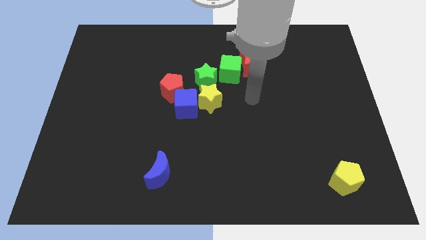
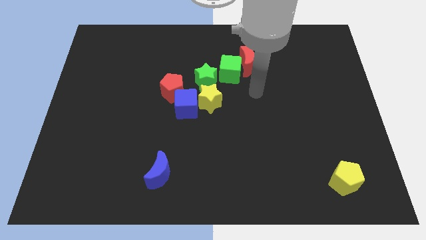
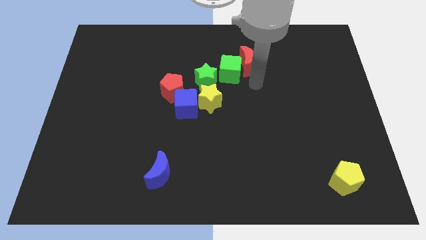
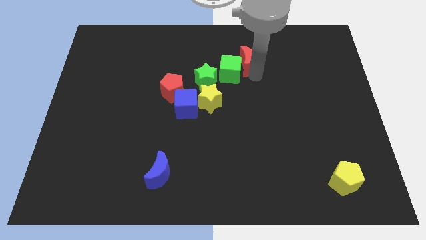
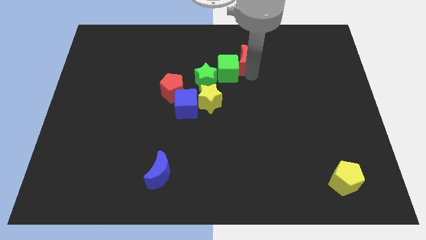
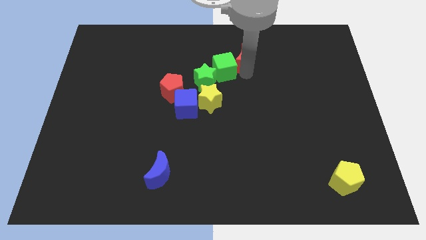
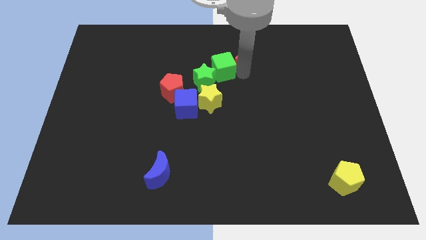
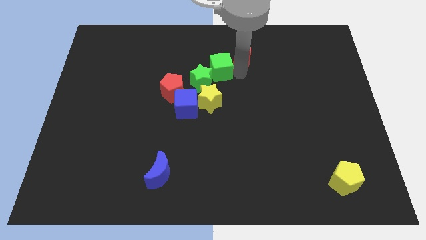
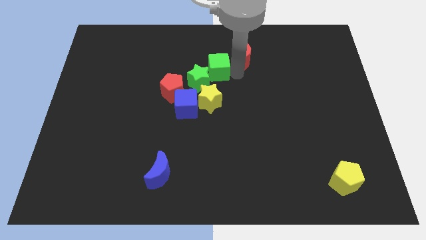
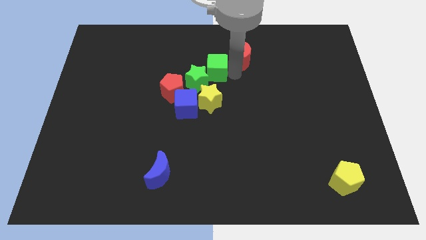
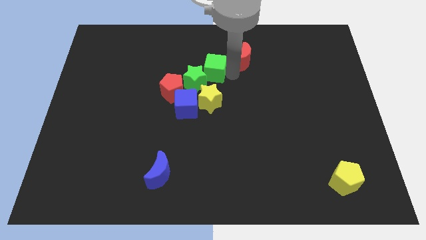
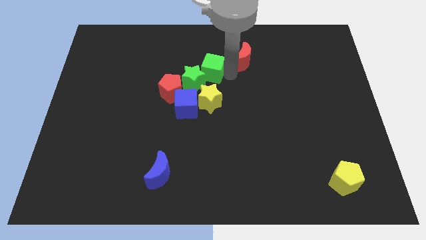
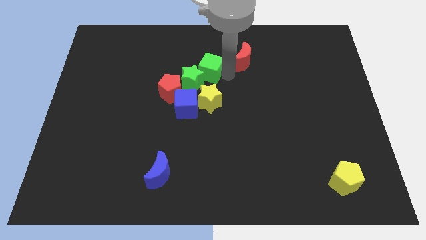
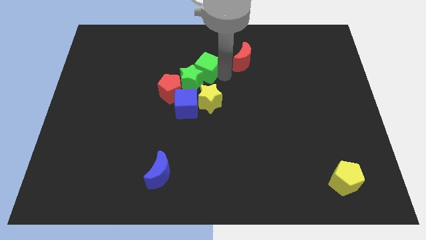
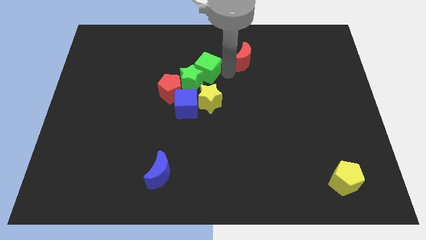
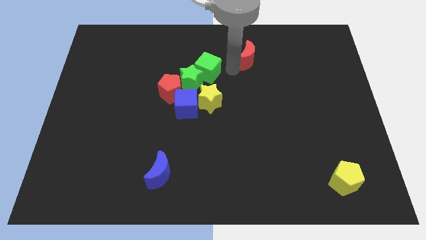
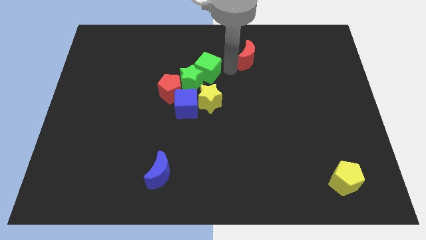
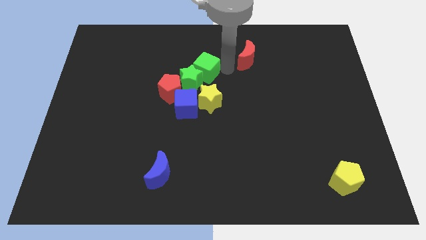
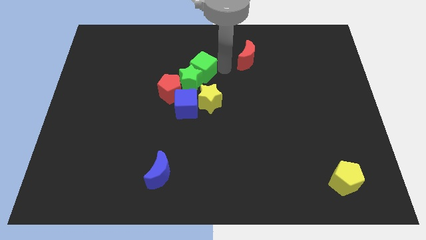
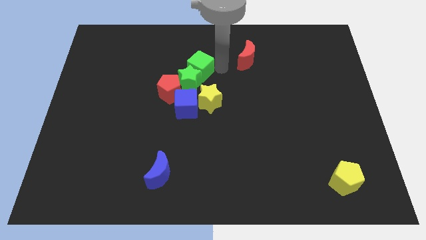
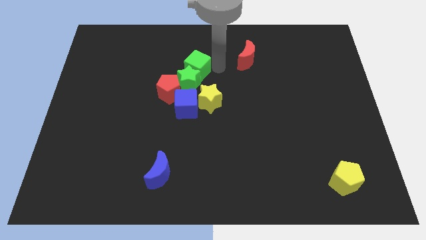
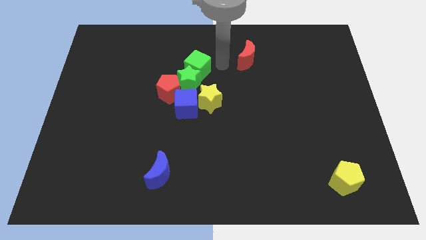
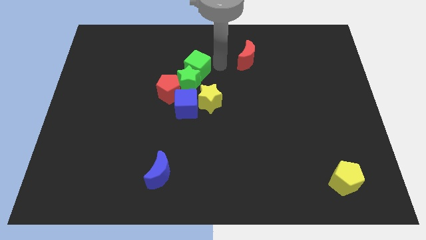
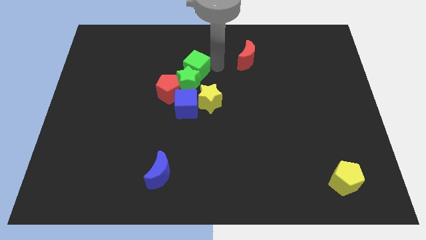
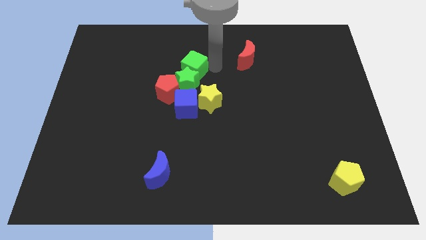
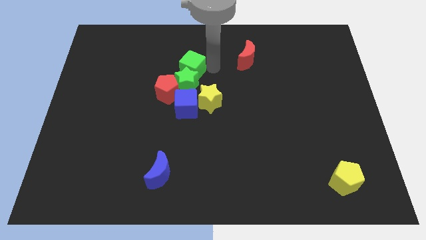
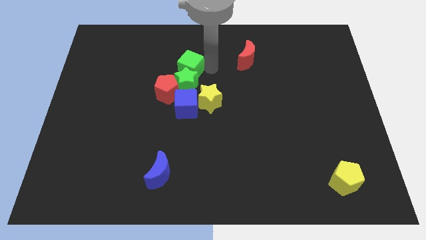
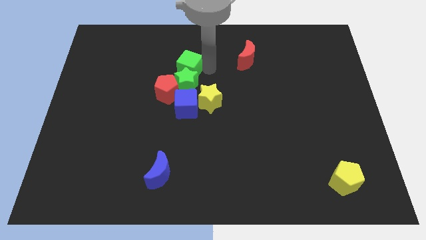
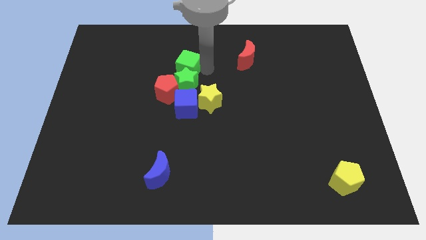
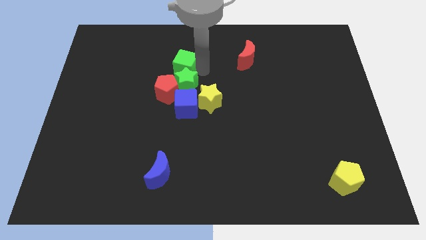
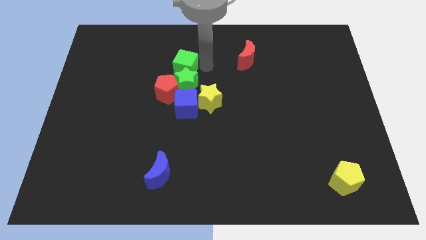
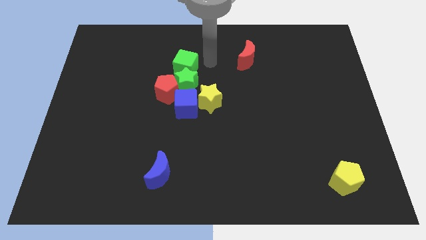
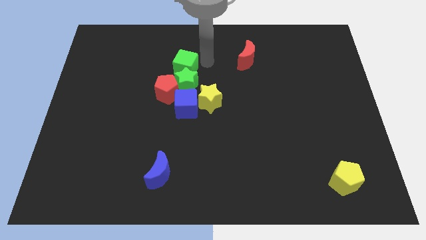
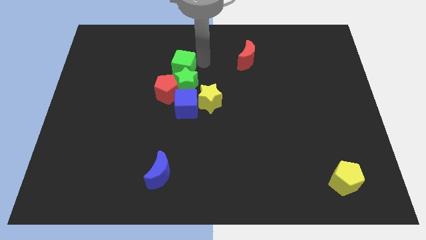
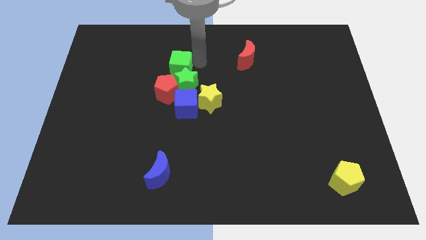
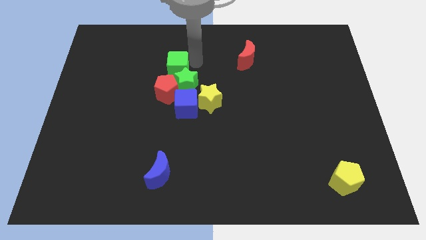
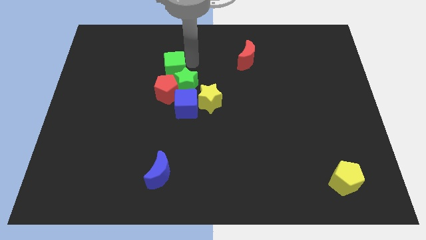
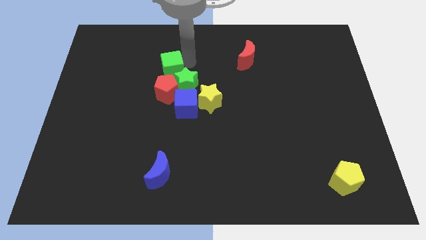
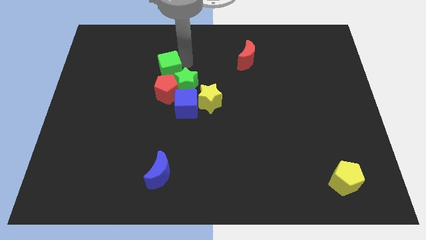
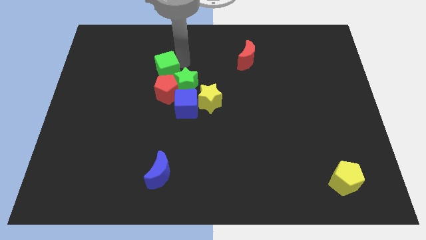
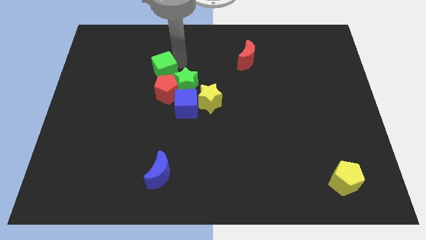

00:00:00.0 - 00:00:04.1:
move the green cube to the top left side of the red pentagon

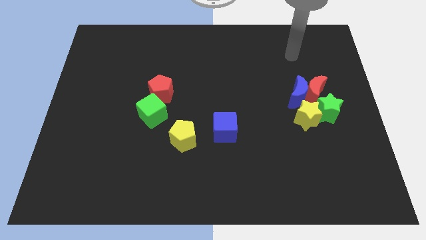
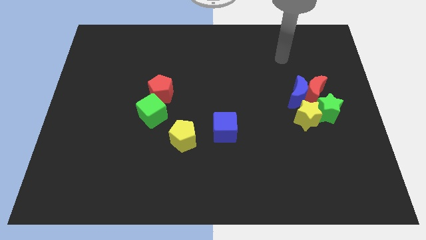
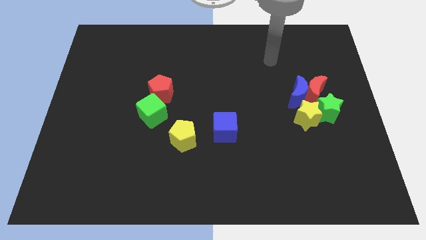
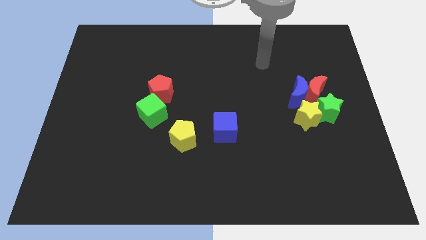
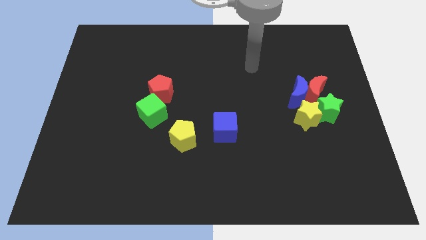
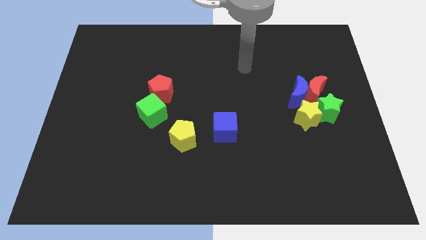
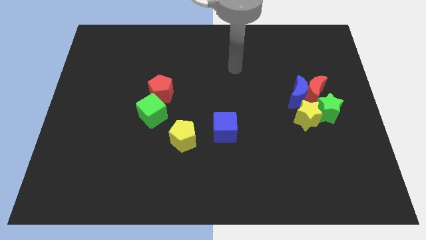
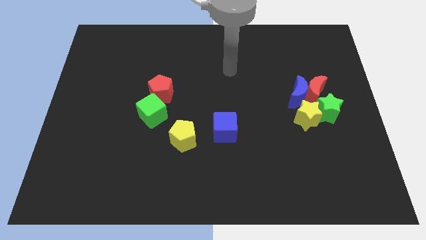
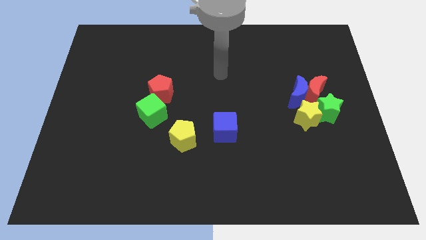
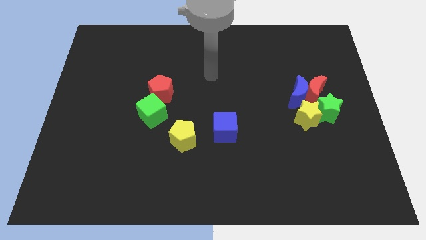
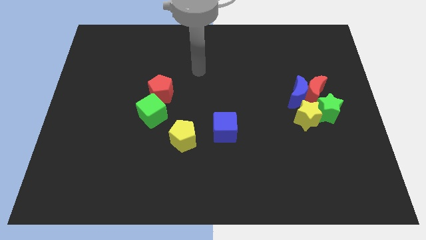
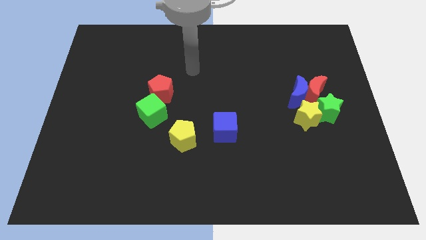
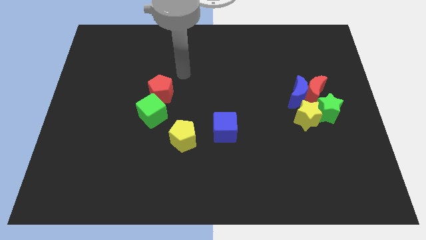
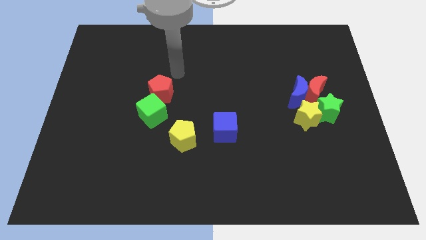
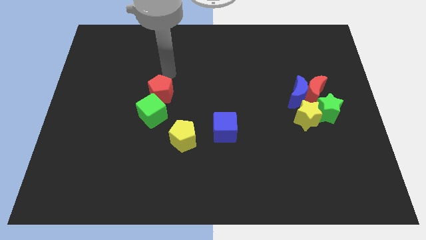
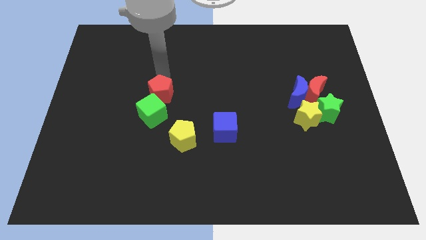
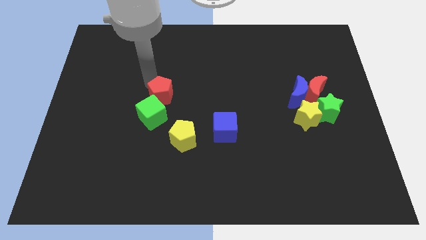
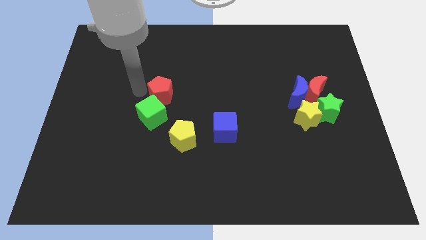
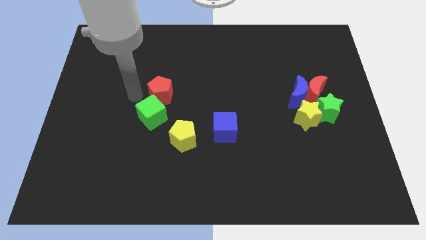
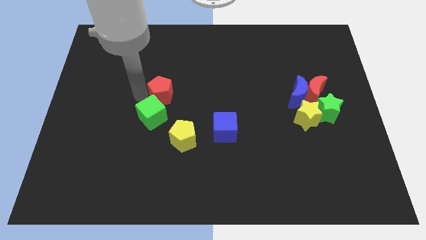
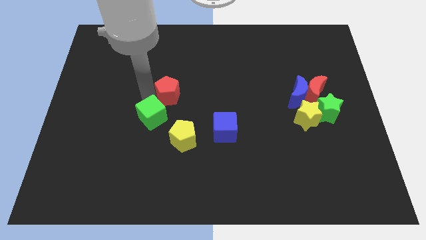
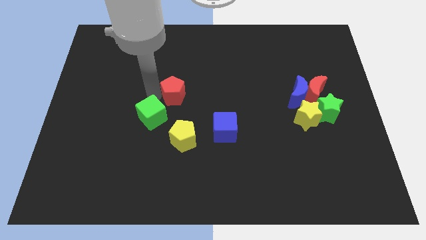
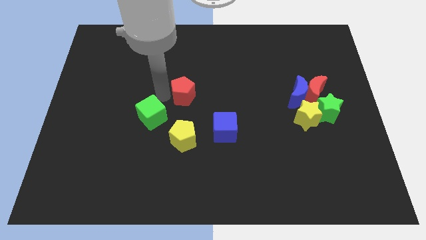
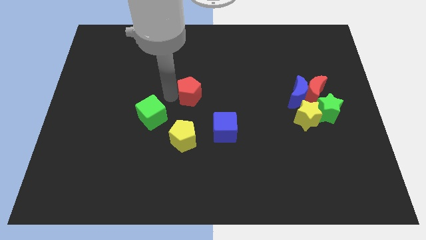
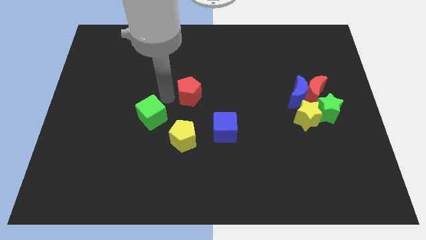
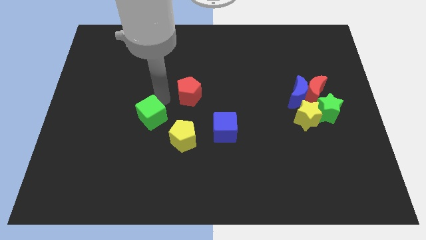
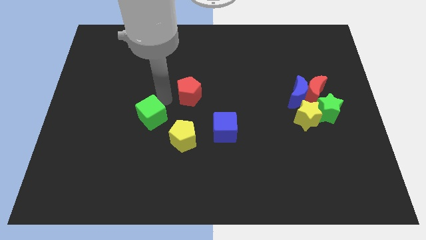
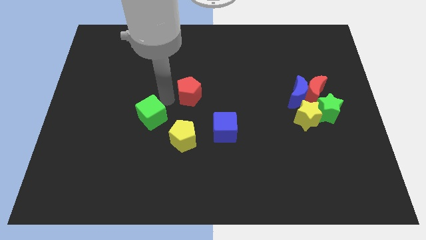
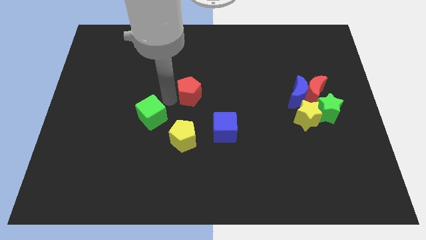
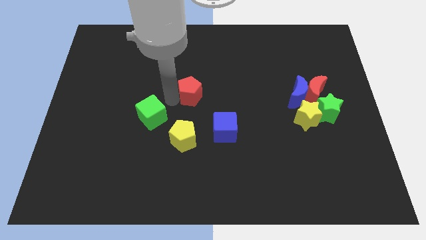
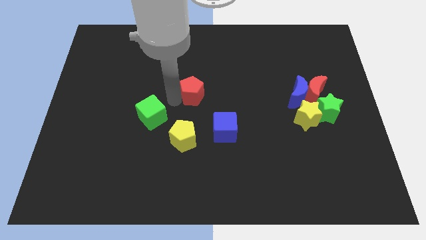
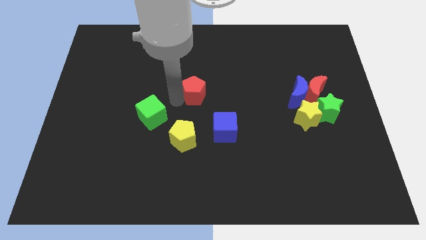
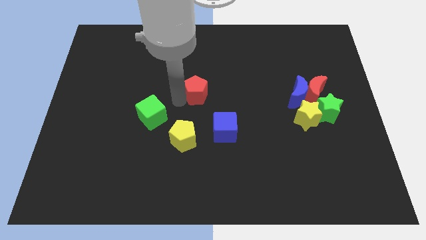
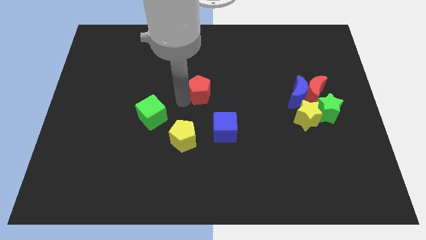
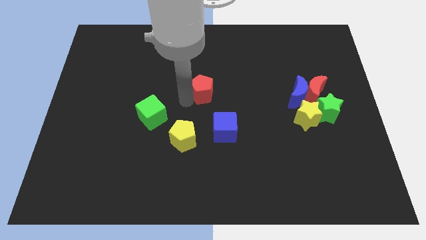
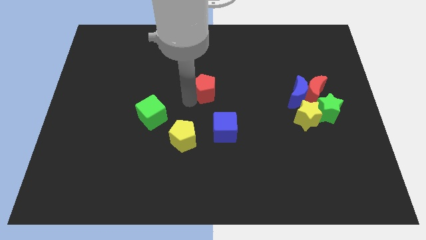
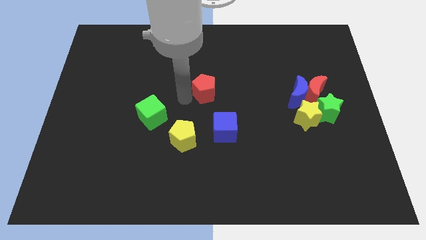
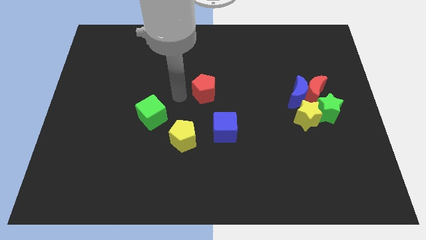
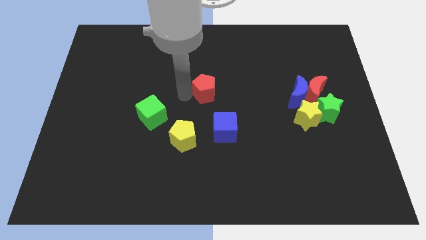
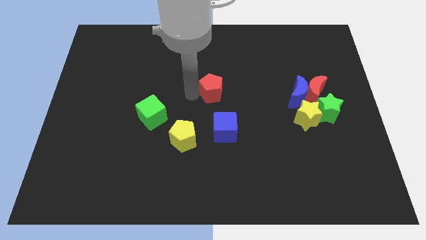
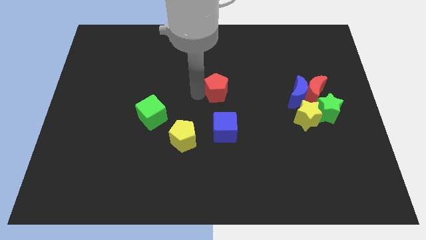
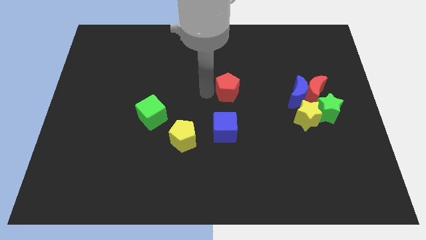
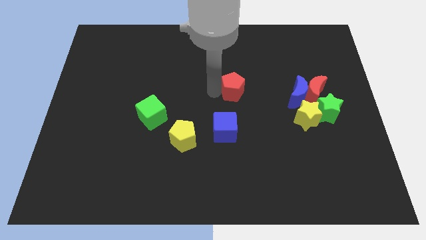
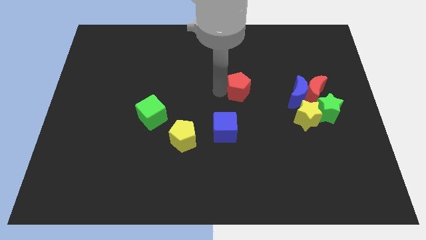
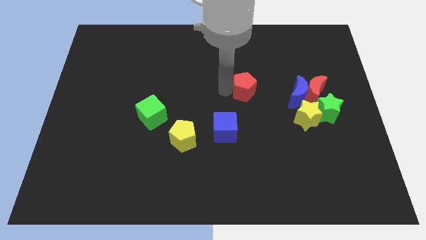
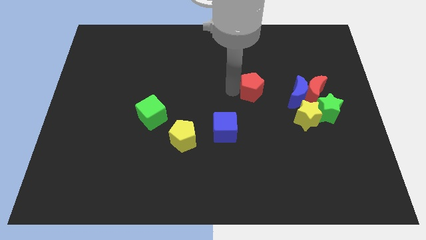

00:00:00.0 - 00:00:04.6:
push the red pentagon to the left of the red moon
